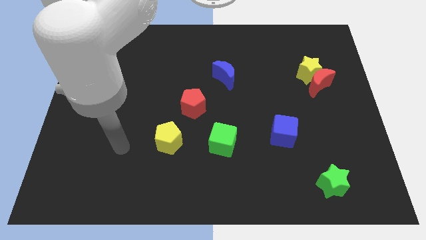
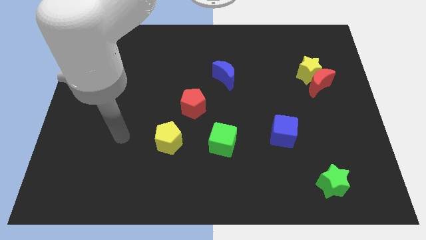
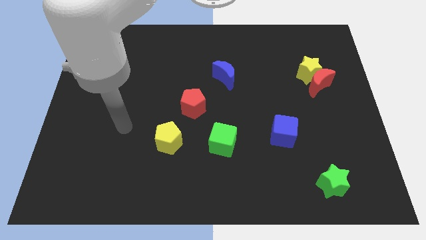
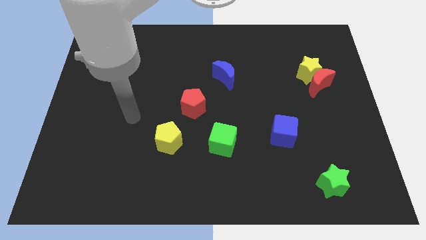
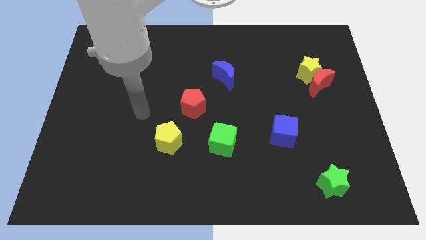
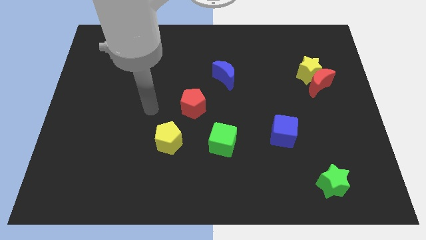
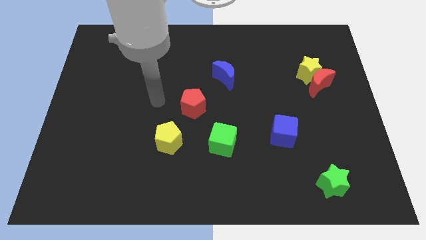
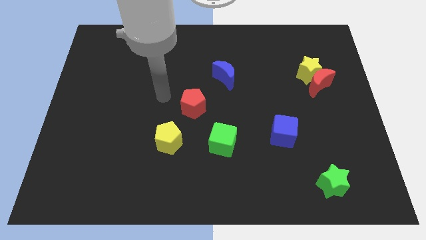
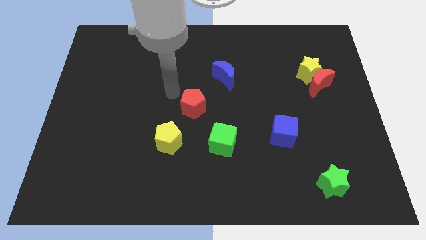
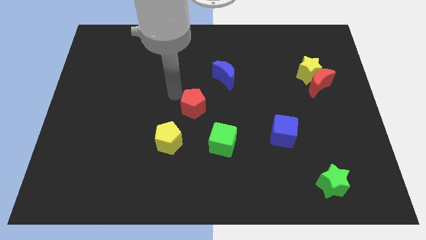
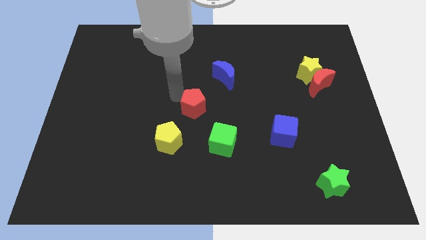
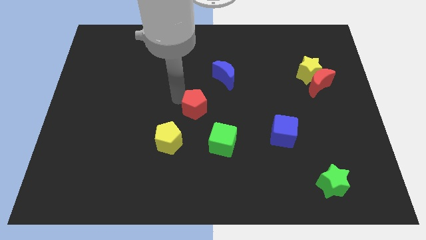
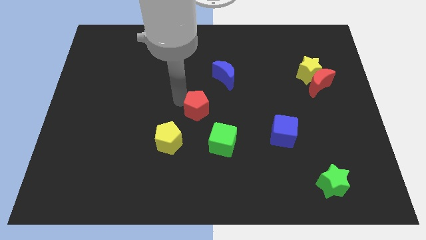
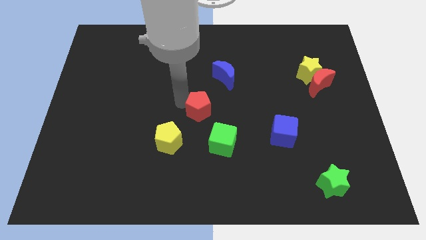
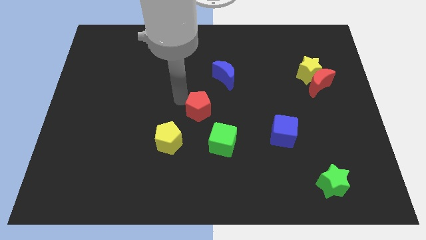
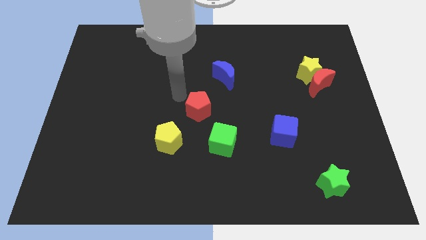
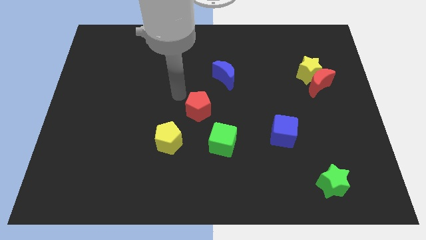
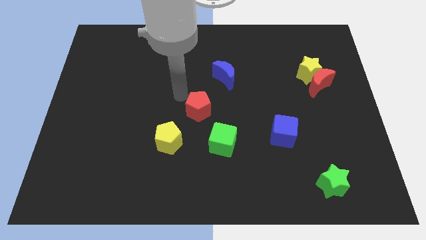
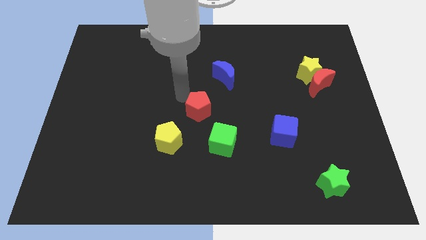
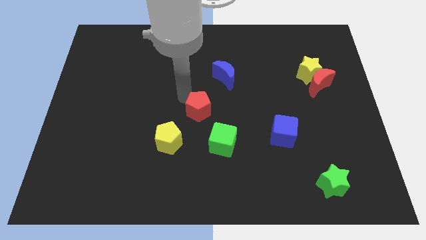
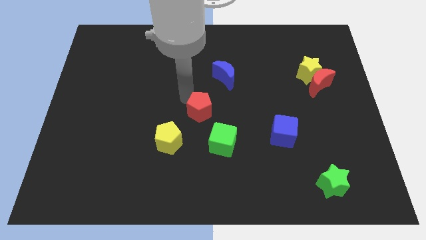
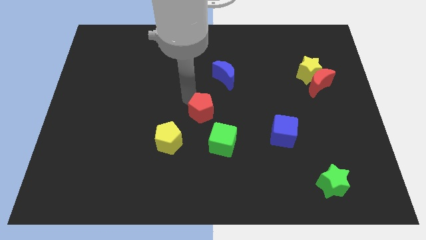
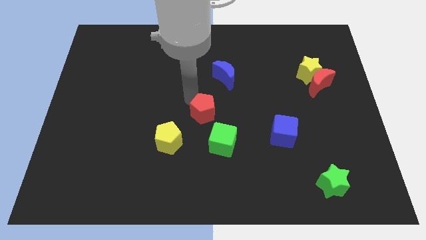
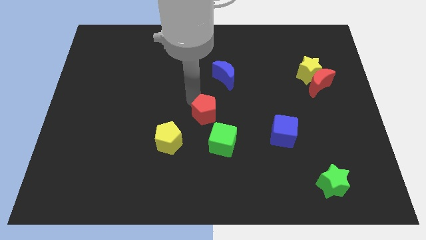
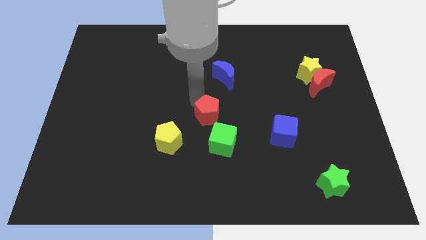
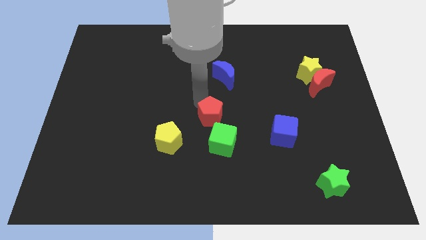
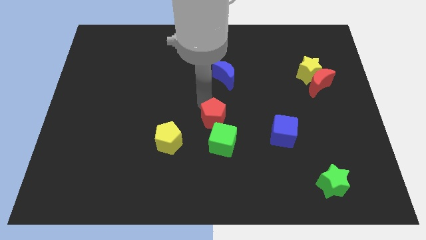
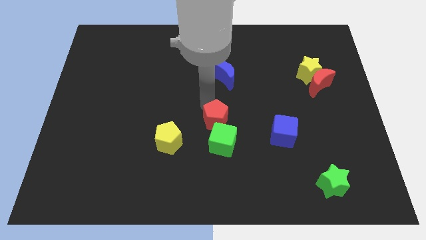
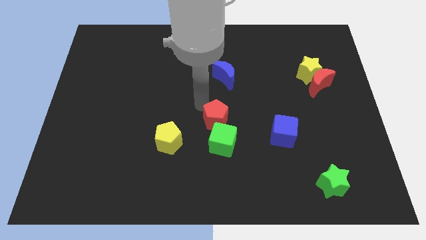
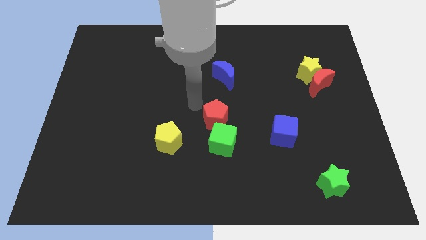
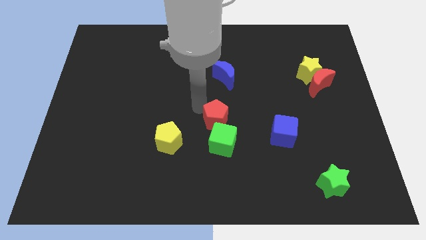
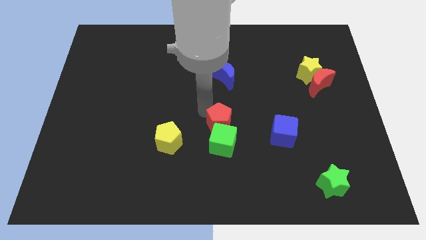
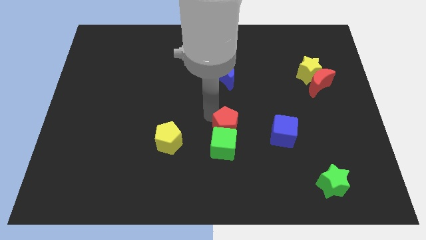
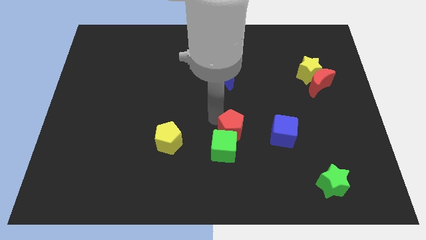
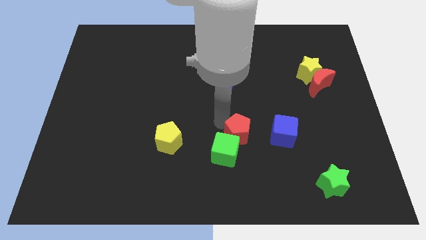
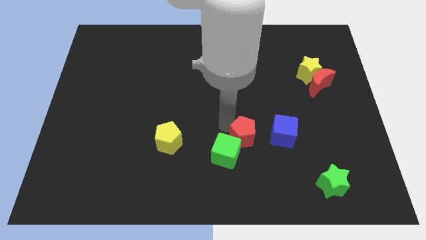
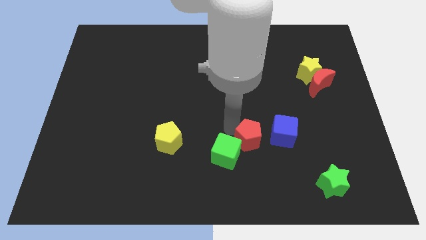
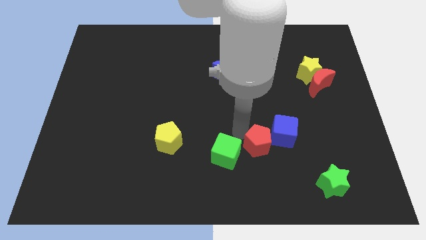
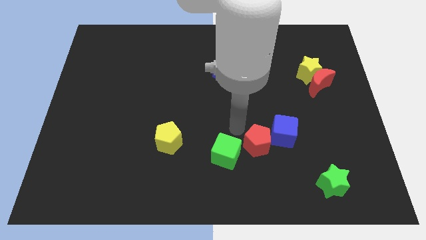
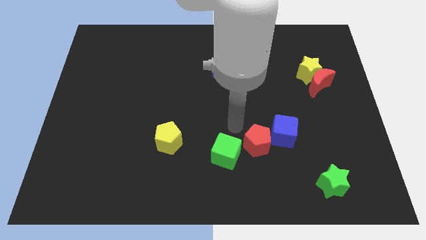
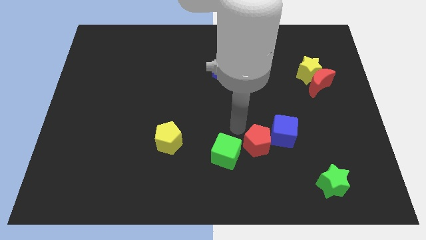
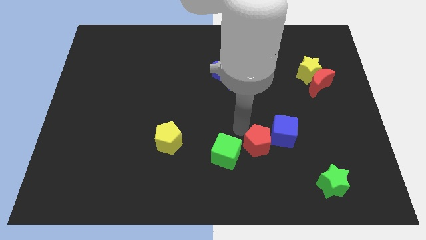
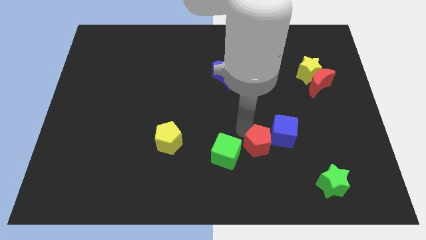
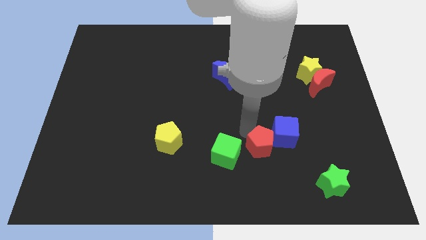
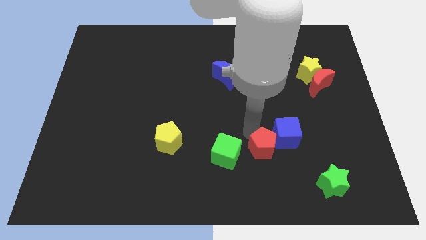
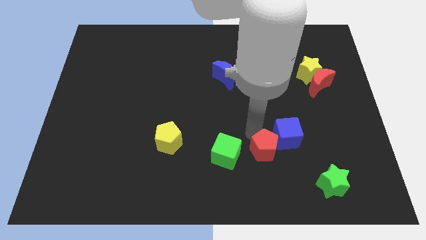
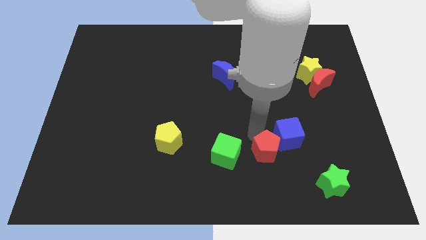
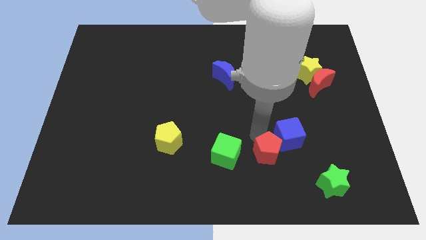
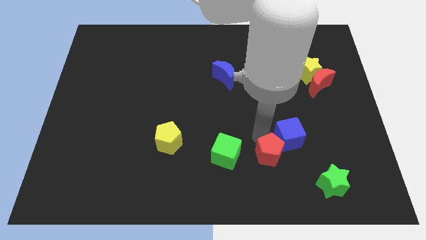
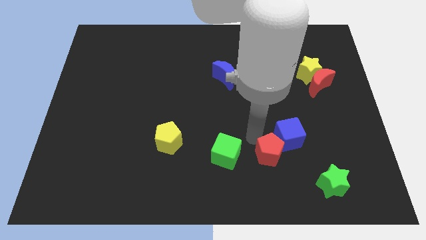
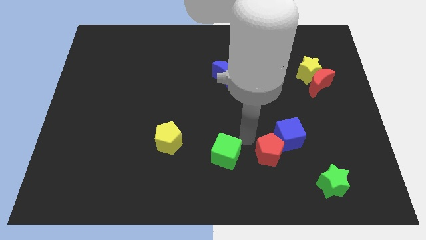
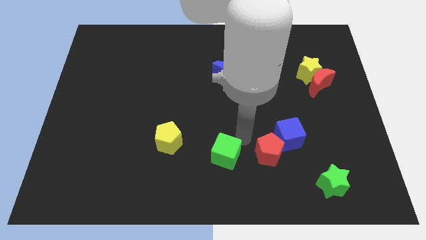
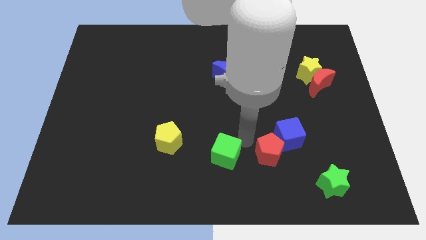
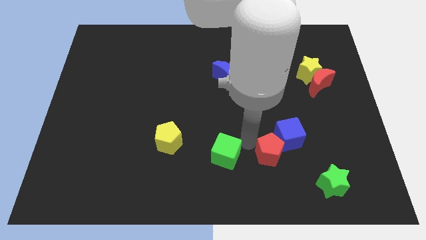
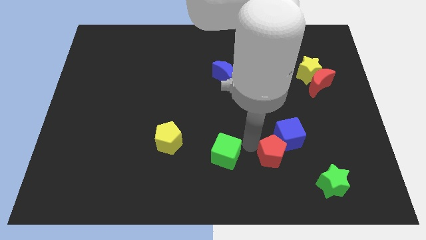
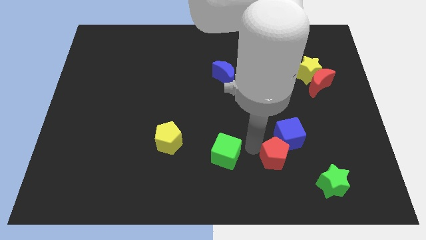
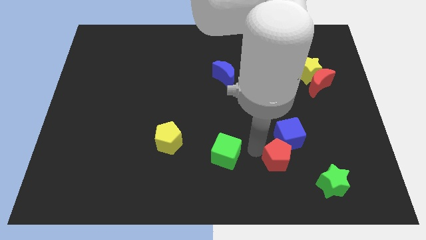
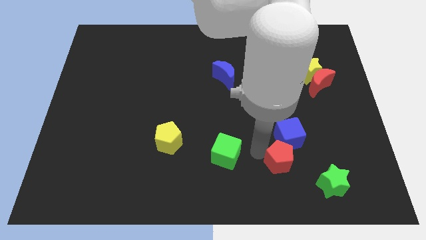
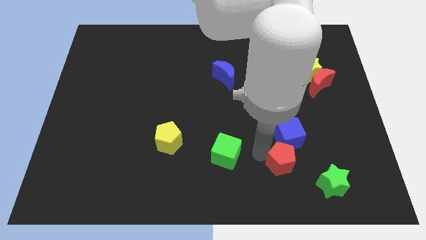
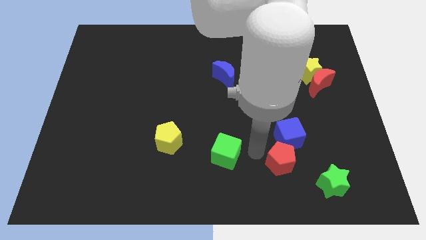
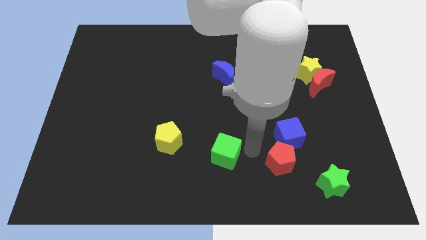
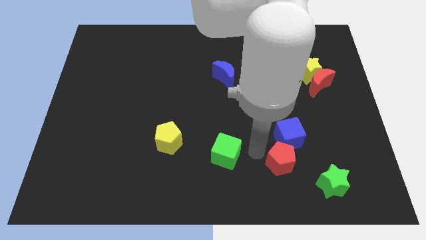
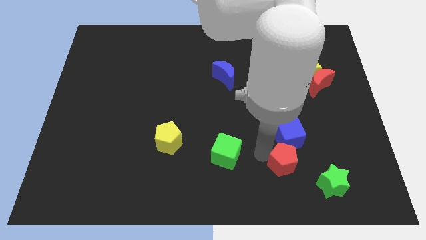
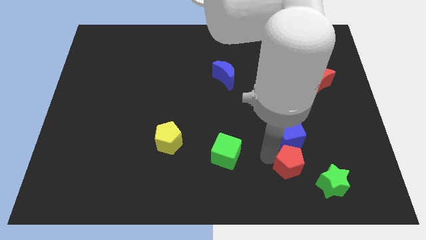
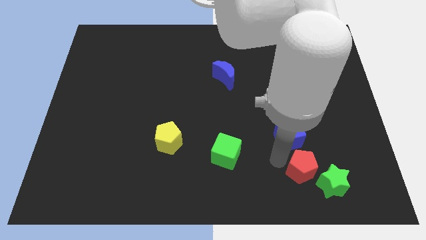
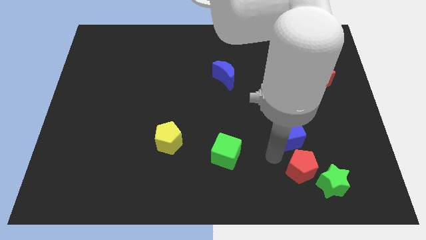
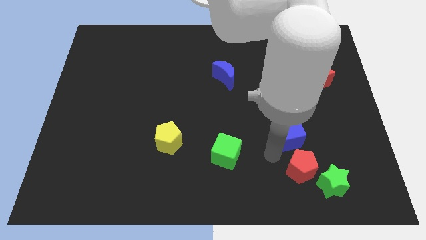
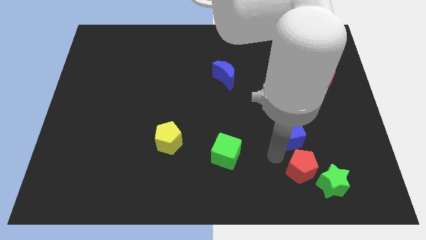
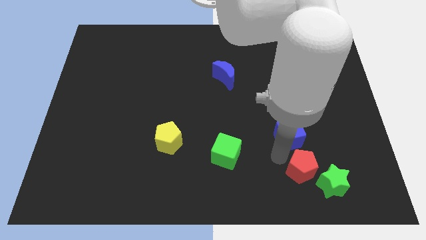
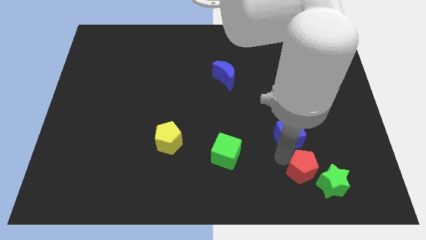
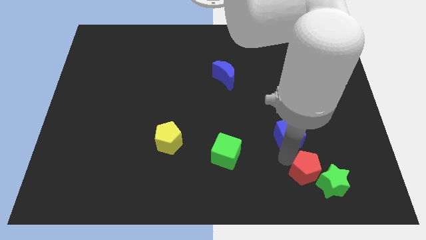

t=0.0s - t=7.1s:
slide the red pentagon towards the green star
